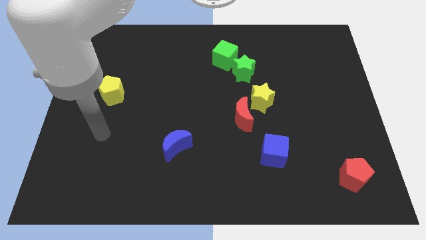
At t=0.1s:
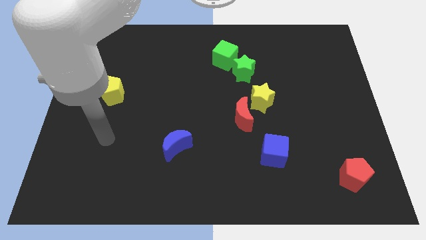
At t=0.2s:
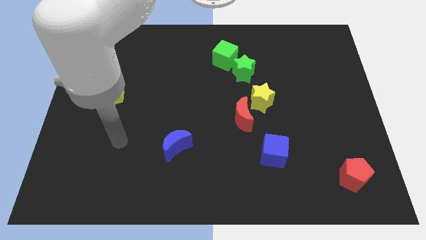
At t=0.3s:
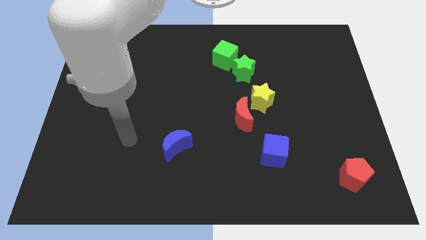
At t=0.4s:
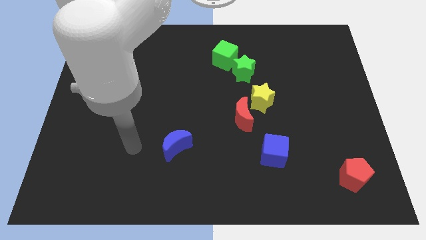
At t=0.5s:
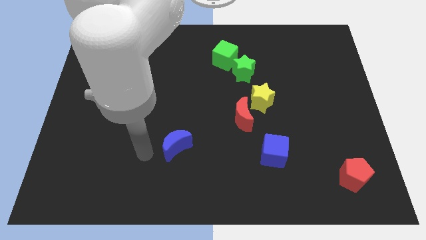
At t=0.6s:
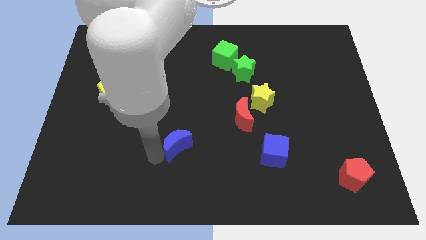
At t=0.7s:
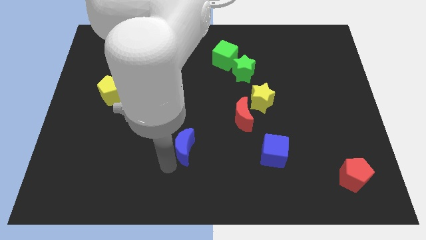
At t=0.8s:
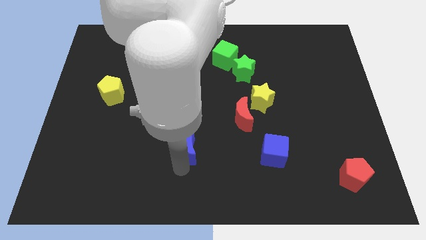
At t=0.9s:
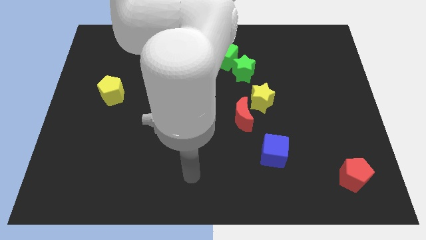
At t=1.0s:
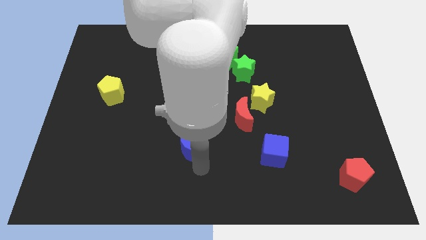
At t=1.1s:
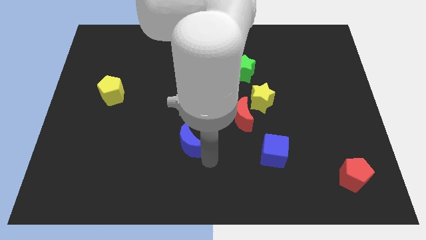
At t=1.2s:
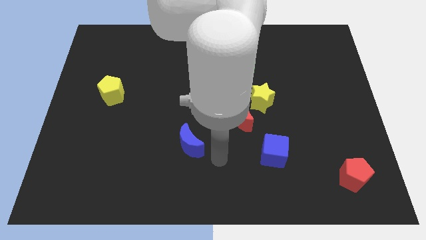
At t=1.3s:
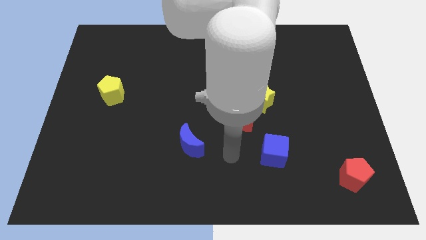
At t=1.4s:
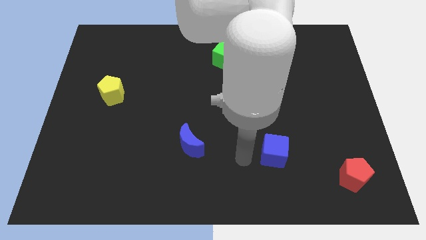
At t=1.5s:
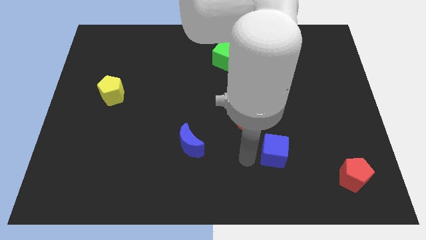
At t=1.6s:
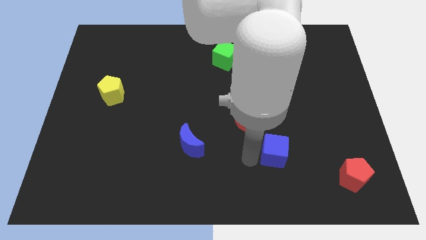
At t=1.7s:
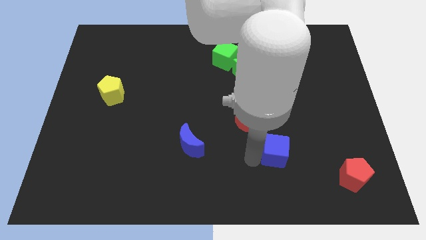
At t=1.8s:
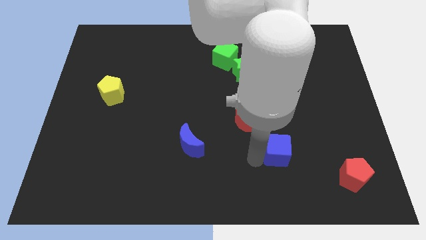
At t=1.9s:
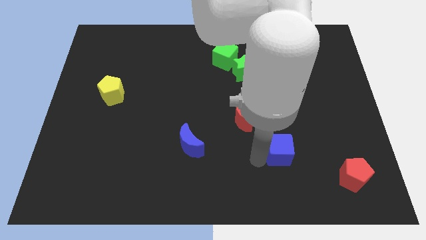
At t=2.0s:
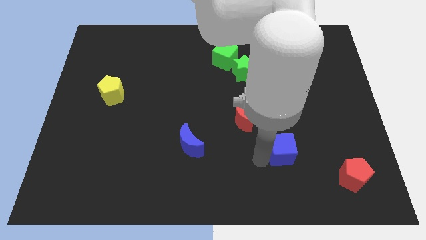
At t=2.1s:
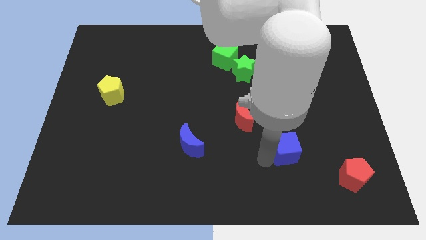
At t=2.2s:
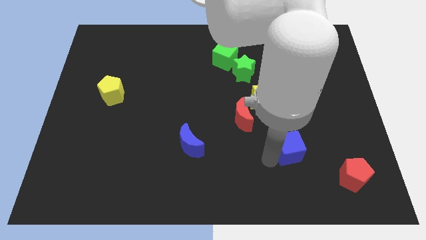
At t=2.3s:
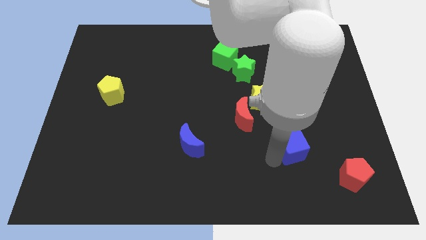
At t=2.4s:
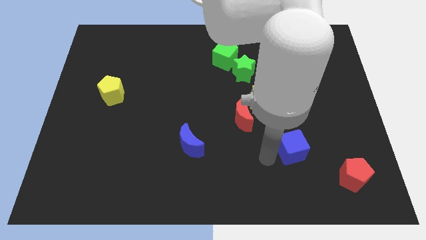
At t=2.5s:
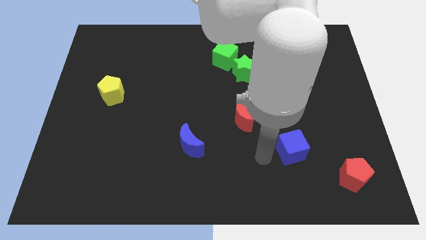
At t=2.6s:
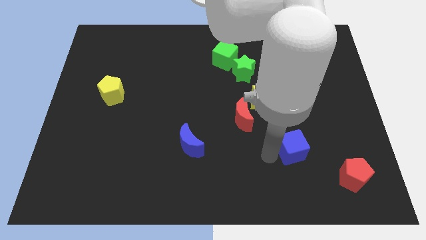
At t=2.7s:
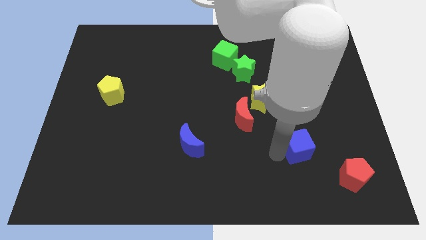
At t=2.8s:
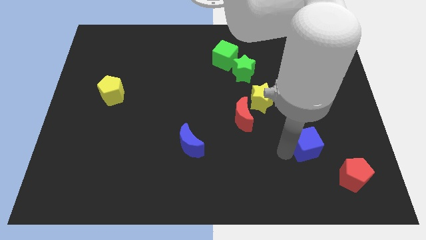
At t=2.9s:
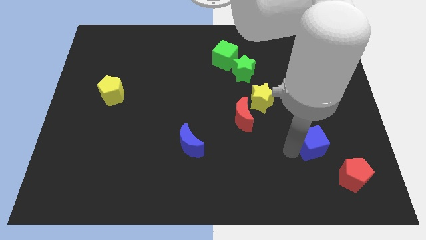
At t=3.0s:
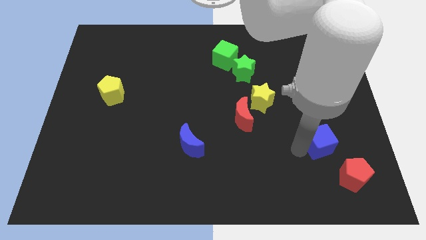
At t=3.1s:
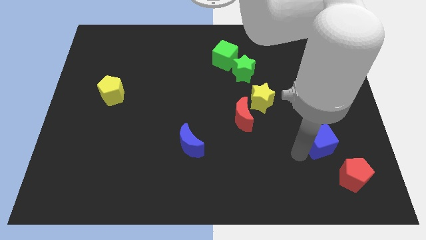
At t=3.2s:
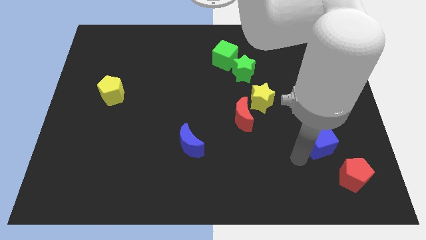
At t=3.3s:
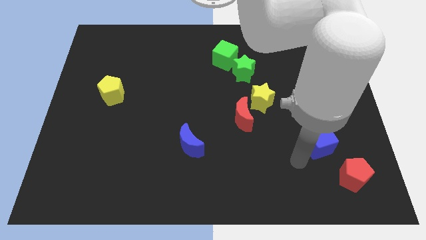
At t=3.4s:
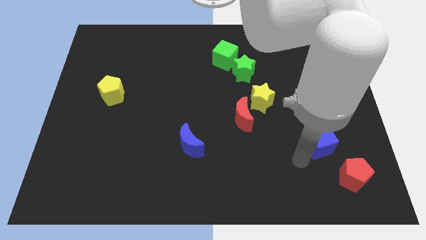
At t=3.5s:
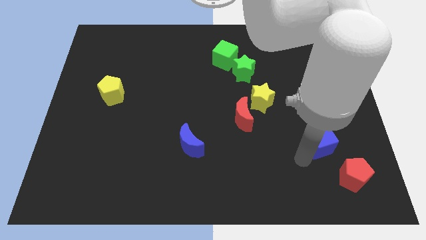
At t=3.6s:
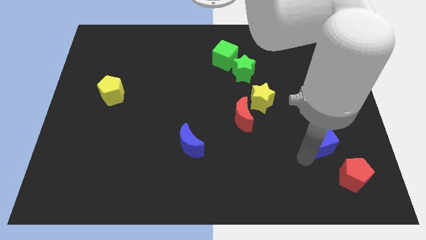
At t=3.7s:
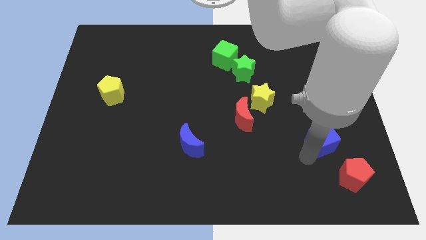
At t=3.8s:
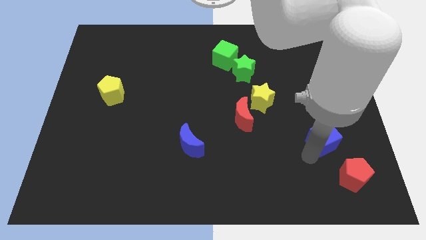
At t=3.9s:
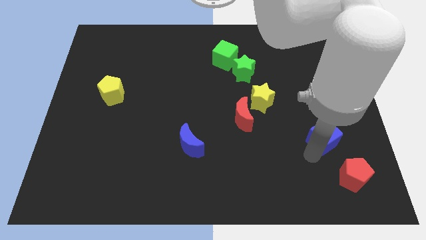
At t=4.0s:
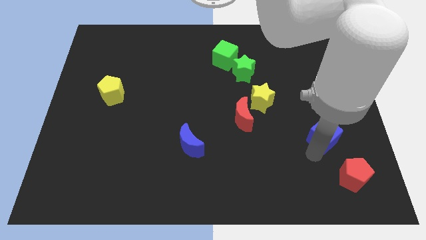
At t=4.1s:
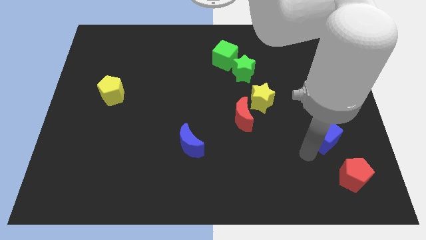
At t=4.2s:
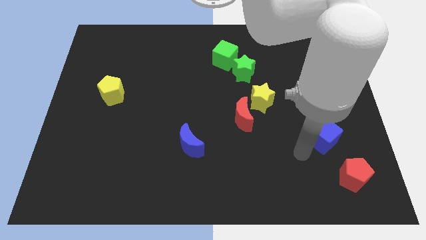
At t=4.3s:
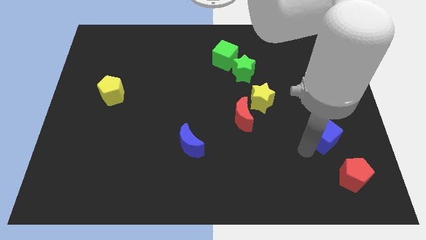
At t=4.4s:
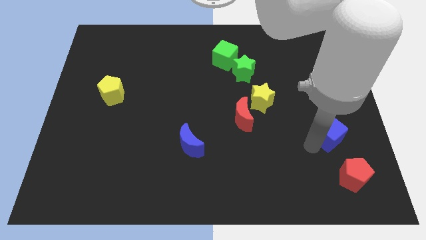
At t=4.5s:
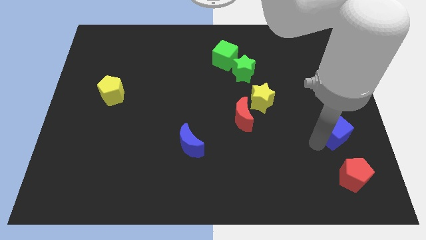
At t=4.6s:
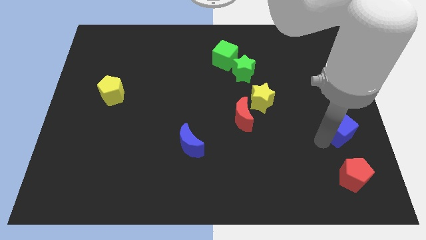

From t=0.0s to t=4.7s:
put the blue cube to the right side

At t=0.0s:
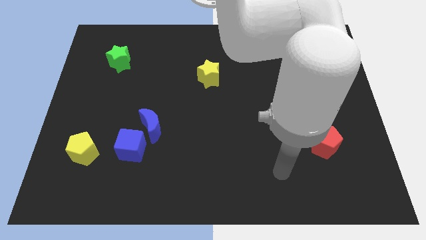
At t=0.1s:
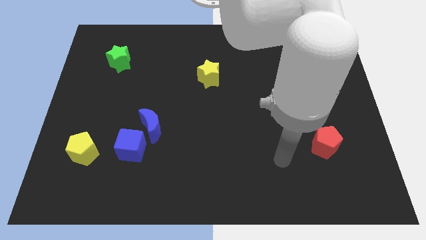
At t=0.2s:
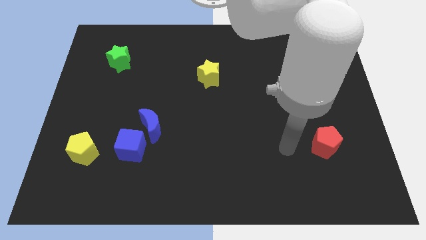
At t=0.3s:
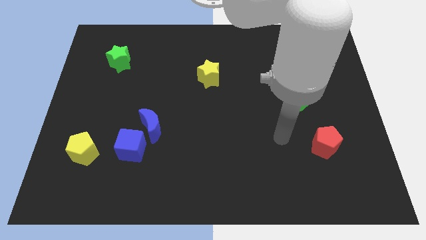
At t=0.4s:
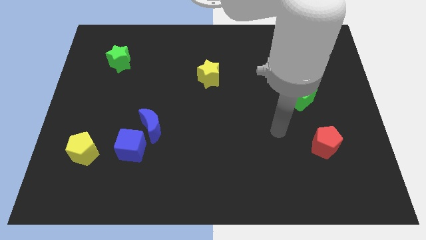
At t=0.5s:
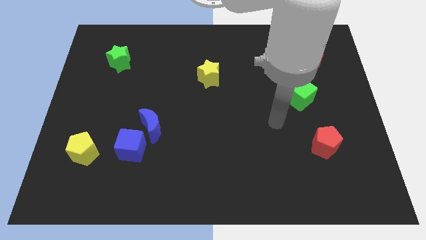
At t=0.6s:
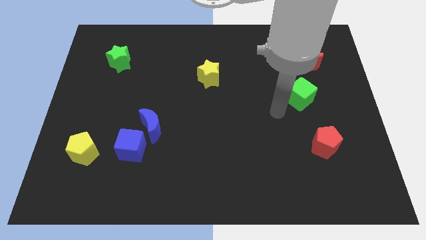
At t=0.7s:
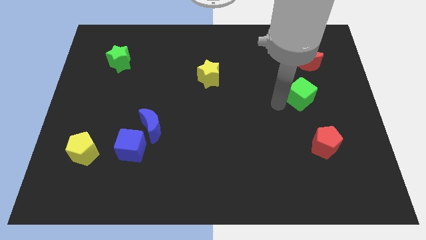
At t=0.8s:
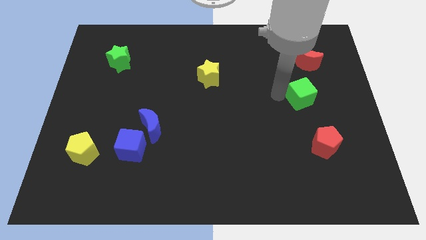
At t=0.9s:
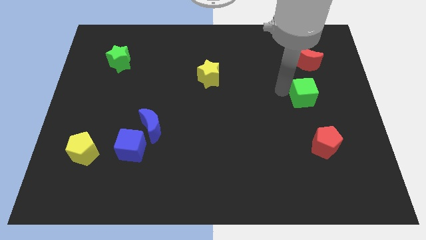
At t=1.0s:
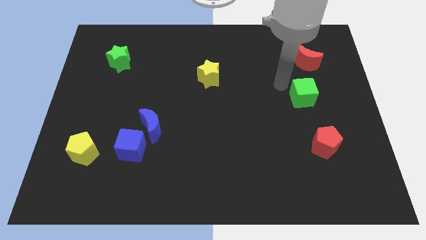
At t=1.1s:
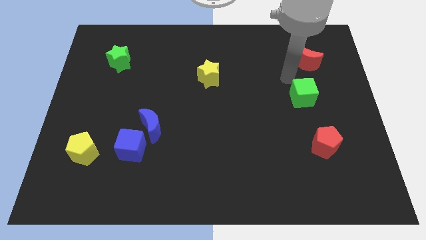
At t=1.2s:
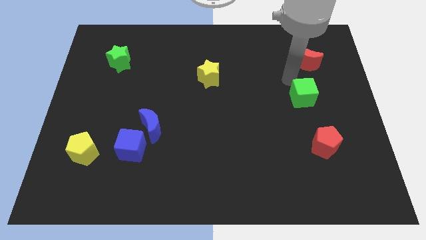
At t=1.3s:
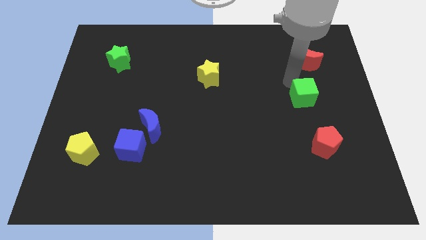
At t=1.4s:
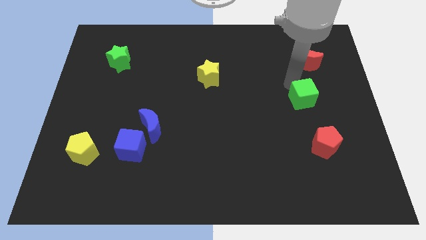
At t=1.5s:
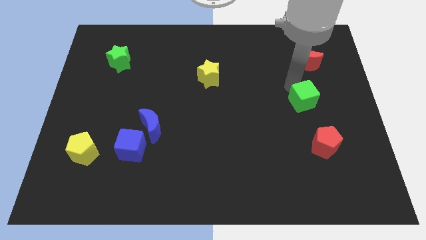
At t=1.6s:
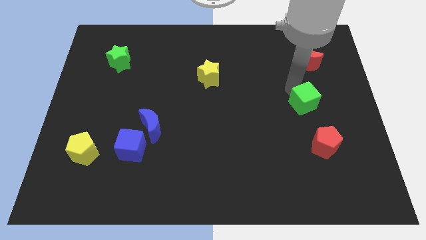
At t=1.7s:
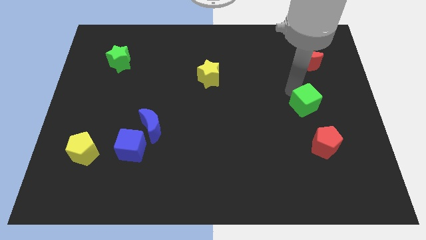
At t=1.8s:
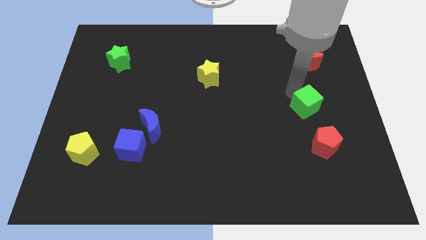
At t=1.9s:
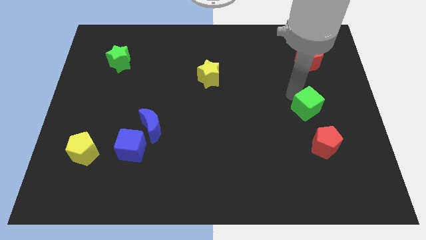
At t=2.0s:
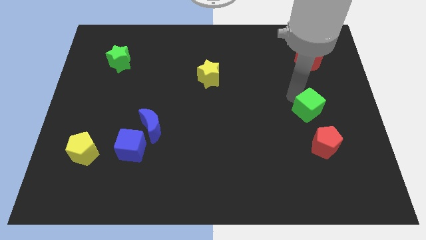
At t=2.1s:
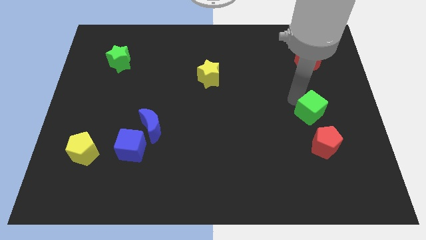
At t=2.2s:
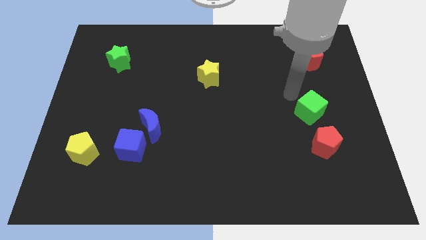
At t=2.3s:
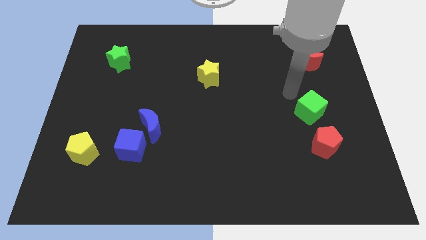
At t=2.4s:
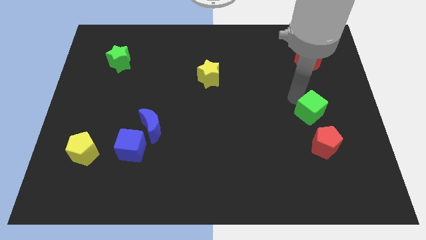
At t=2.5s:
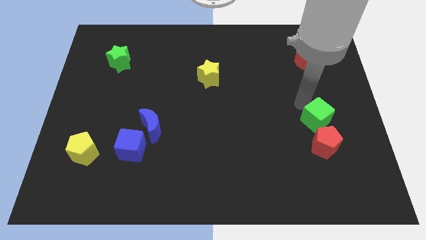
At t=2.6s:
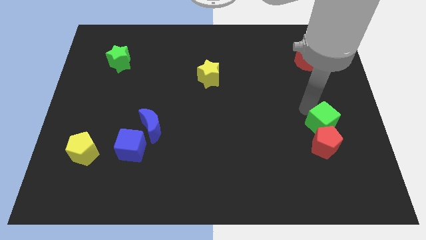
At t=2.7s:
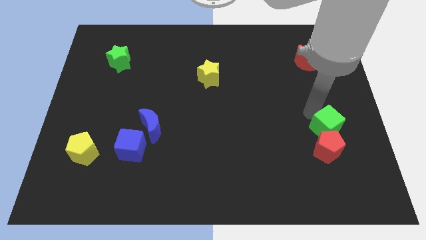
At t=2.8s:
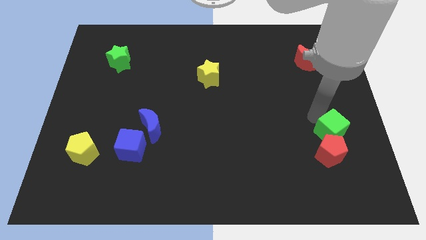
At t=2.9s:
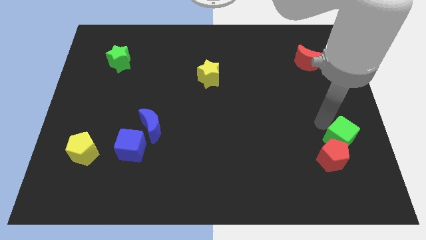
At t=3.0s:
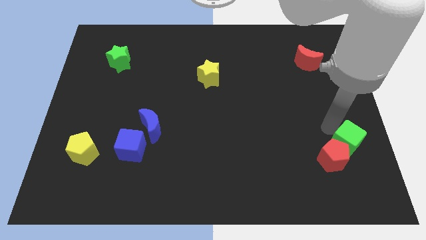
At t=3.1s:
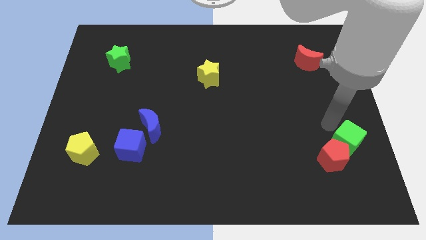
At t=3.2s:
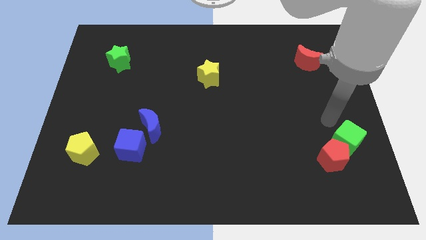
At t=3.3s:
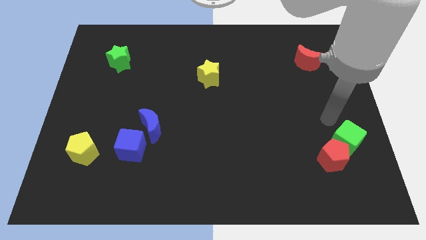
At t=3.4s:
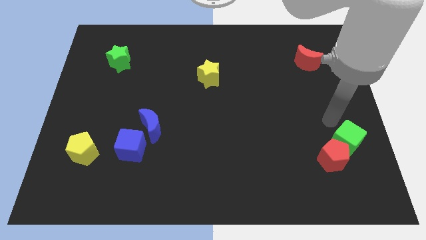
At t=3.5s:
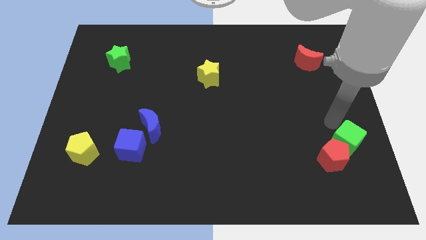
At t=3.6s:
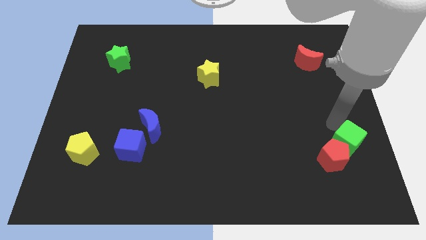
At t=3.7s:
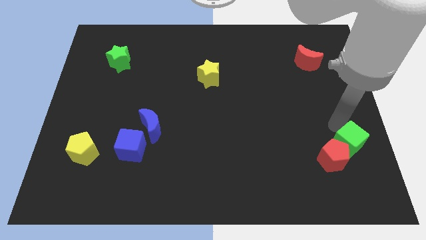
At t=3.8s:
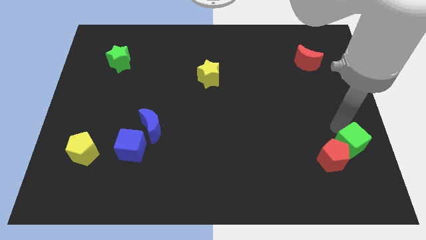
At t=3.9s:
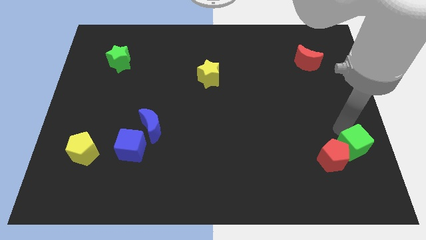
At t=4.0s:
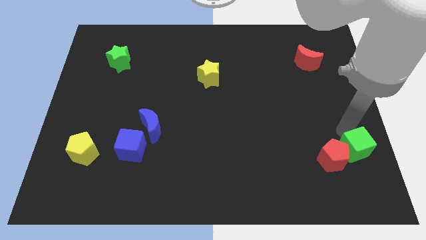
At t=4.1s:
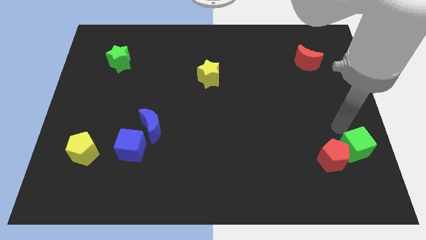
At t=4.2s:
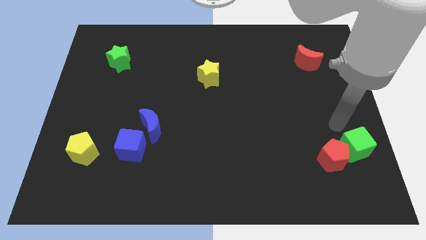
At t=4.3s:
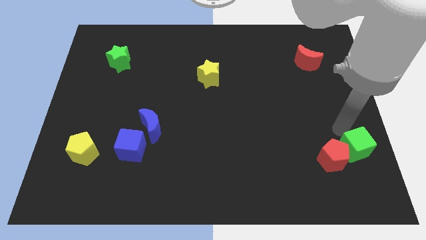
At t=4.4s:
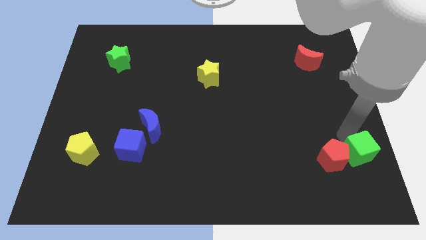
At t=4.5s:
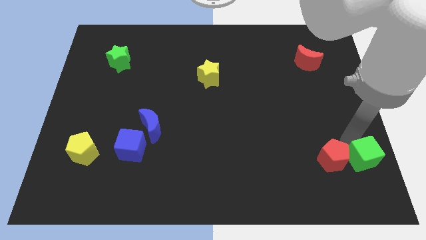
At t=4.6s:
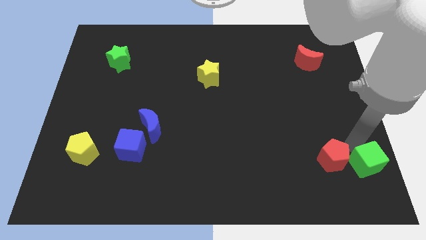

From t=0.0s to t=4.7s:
push the green cube to the bottom right
